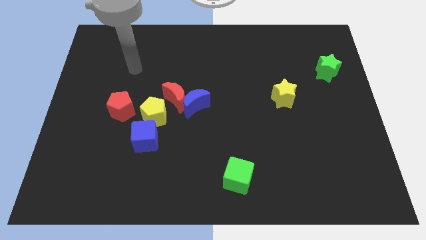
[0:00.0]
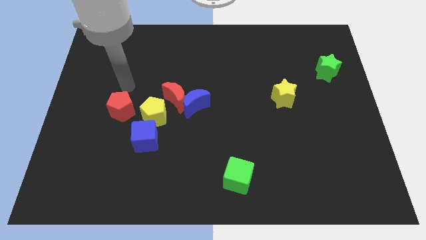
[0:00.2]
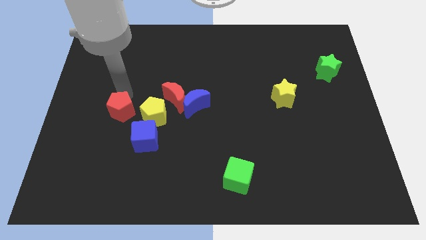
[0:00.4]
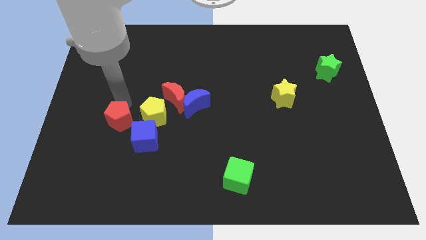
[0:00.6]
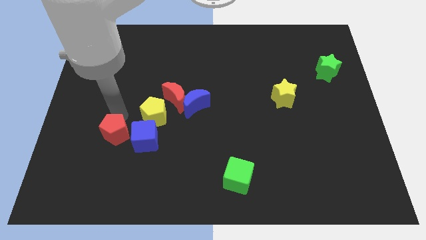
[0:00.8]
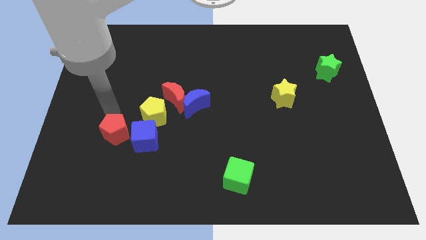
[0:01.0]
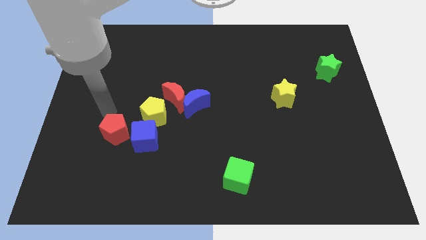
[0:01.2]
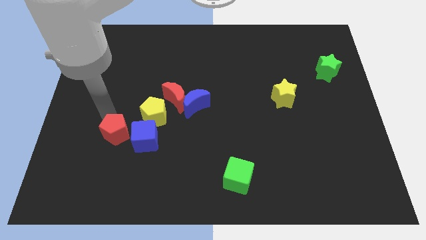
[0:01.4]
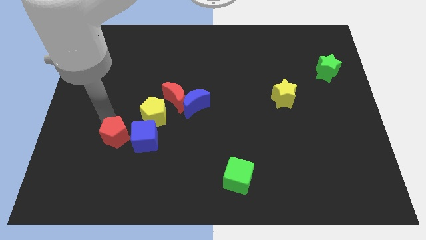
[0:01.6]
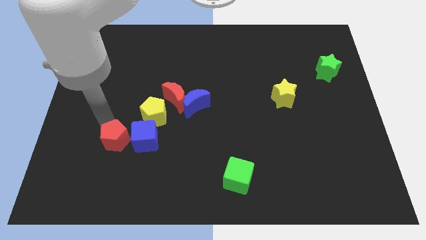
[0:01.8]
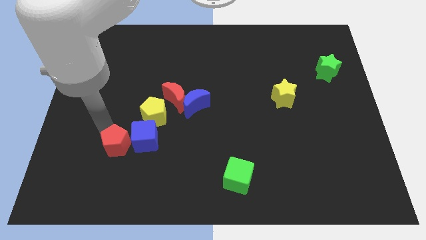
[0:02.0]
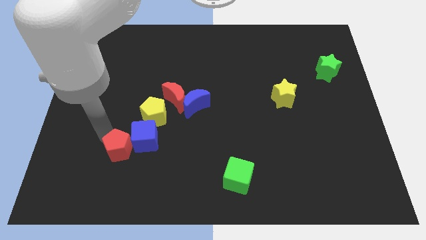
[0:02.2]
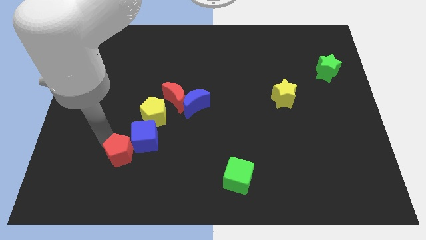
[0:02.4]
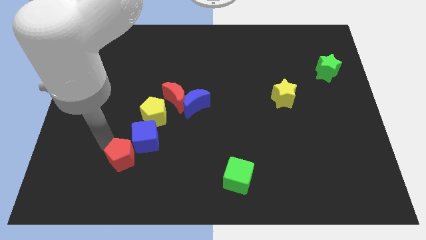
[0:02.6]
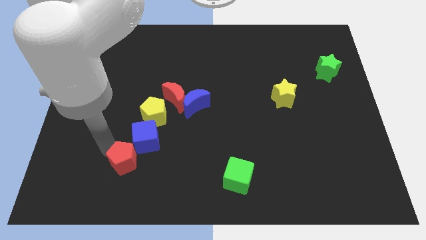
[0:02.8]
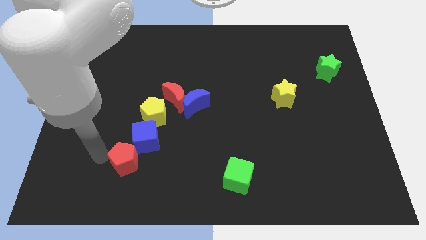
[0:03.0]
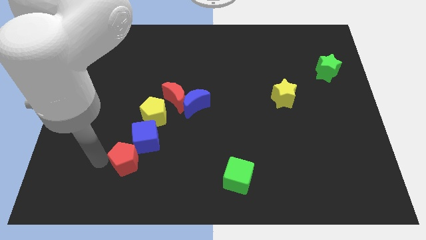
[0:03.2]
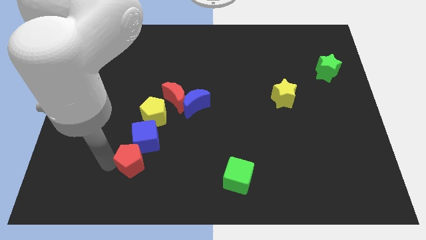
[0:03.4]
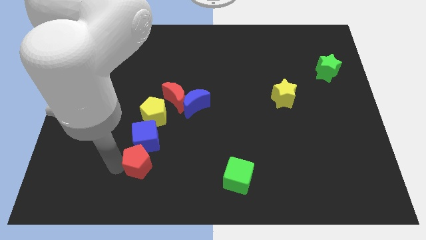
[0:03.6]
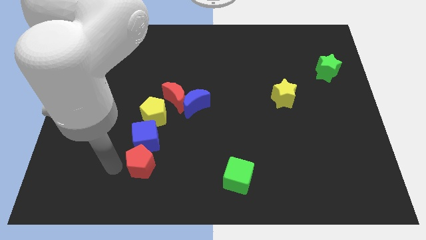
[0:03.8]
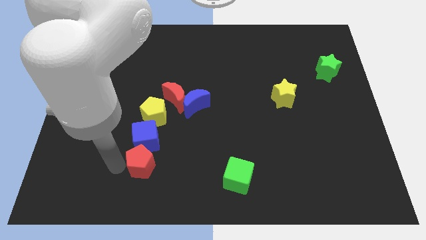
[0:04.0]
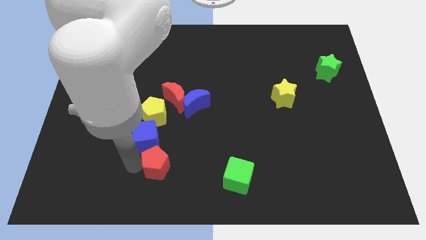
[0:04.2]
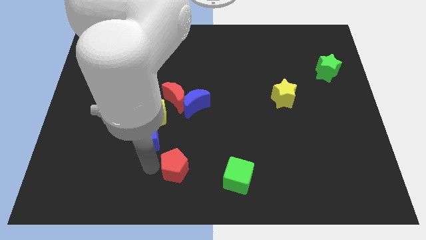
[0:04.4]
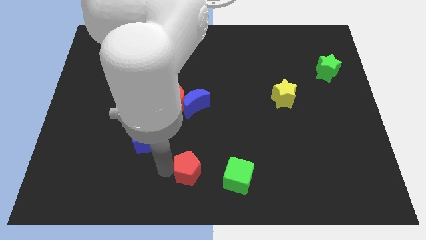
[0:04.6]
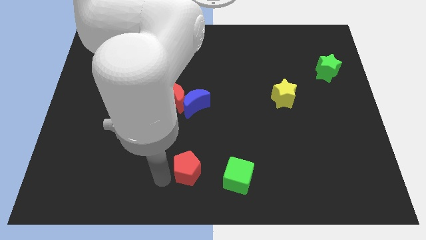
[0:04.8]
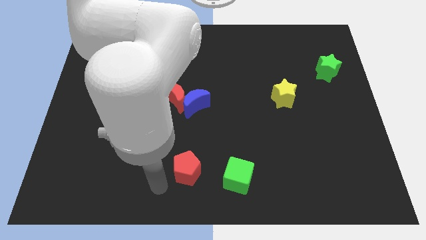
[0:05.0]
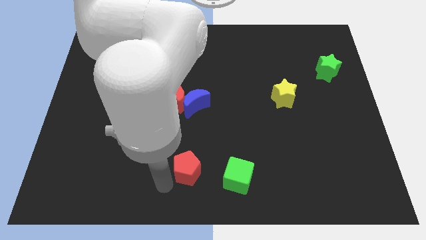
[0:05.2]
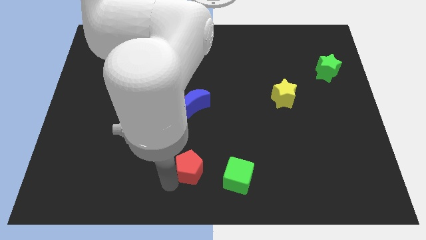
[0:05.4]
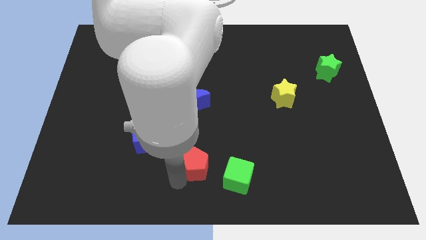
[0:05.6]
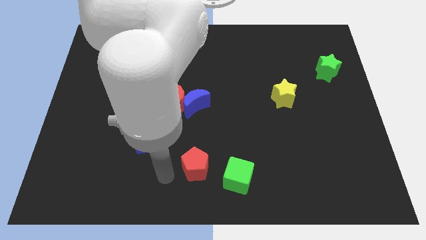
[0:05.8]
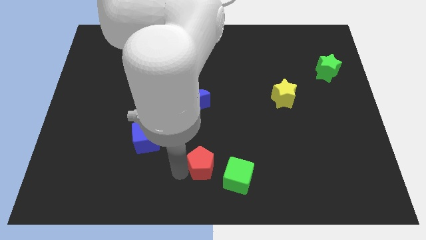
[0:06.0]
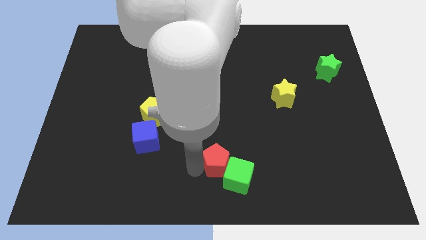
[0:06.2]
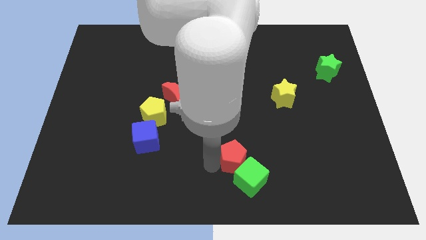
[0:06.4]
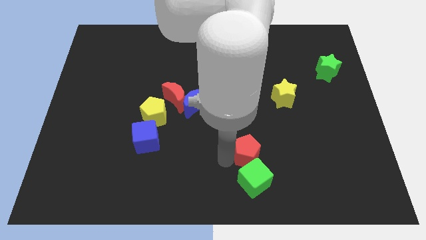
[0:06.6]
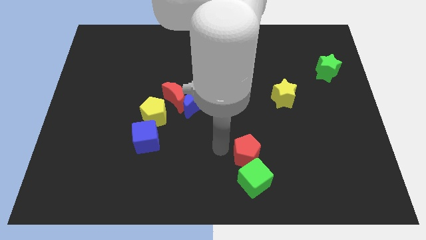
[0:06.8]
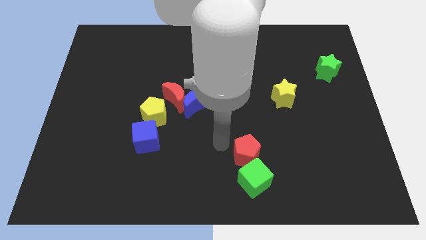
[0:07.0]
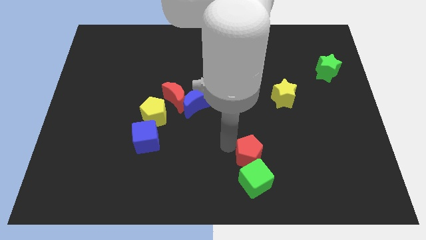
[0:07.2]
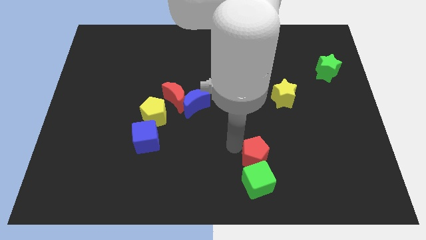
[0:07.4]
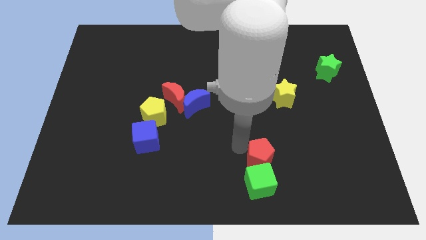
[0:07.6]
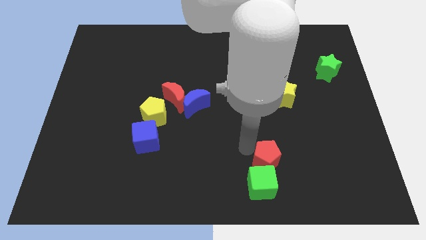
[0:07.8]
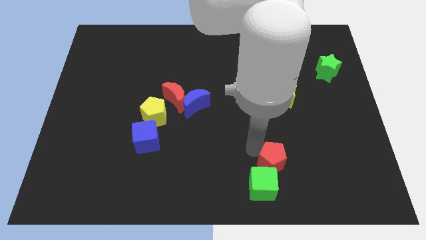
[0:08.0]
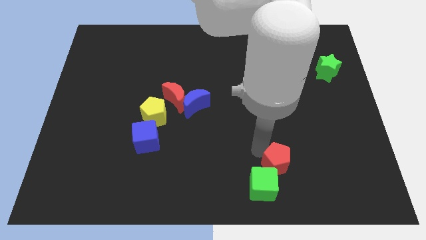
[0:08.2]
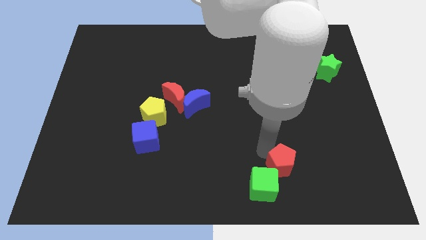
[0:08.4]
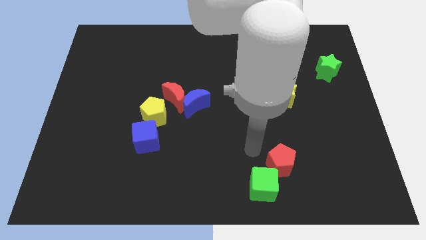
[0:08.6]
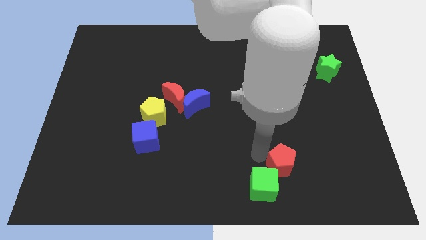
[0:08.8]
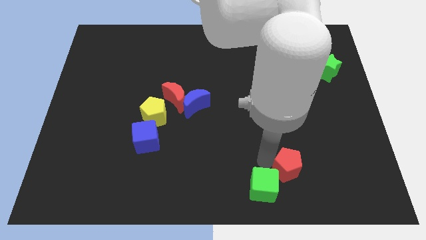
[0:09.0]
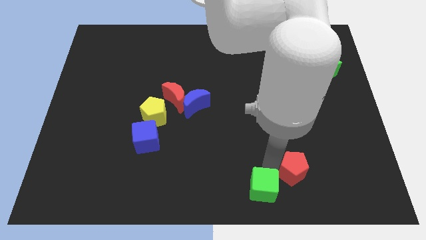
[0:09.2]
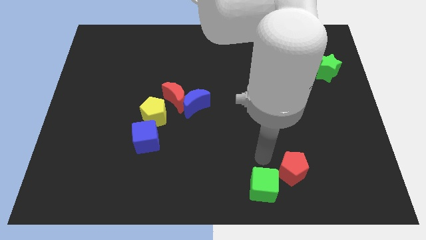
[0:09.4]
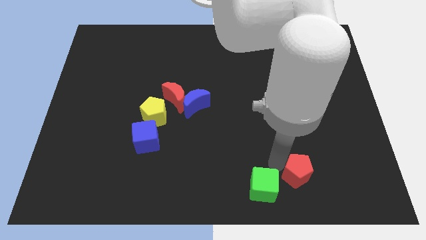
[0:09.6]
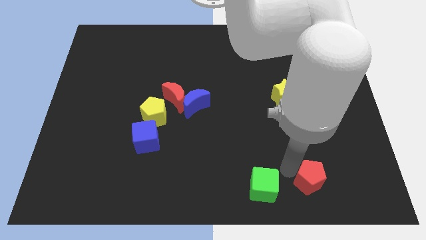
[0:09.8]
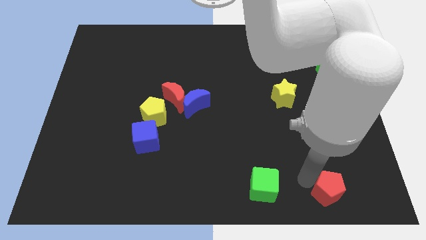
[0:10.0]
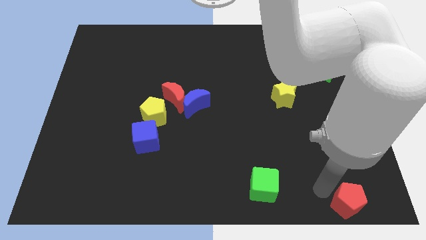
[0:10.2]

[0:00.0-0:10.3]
push the red pentagon to the bottom right
